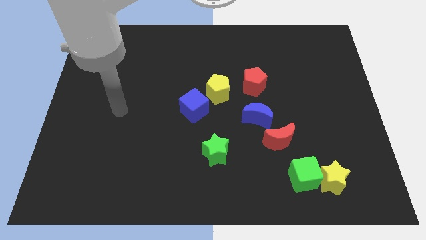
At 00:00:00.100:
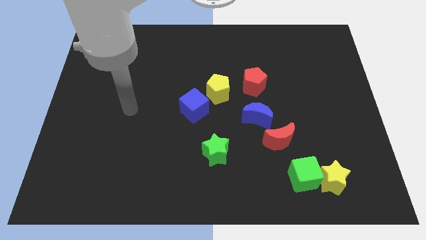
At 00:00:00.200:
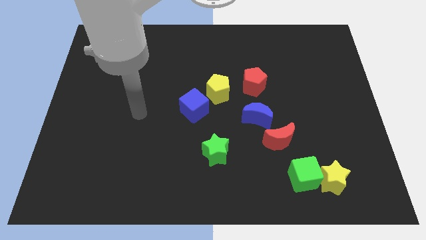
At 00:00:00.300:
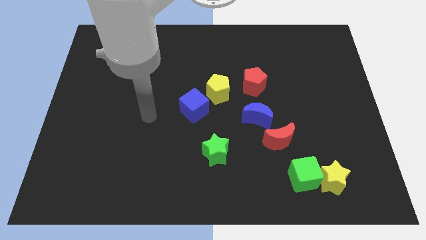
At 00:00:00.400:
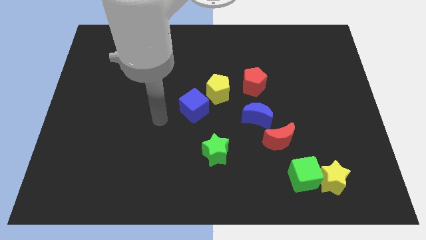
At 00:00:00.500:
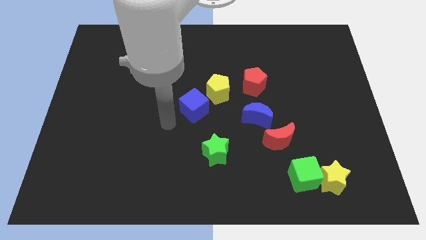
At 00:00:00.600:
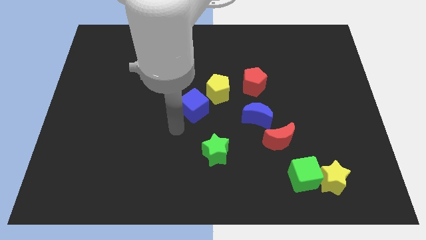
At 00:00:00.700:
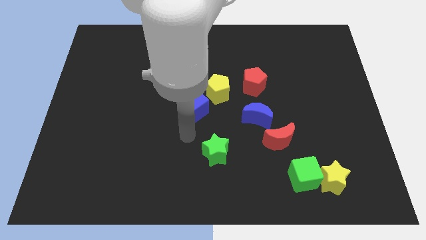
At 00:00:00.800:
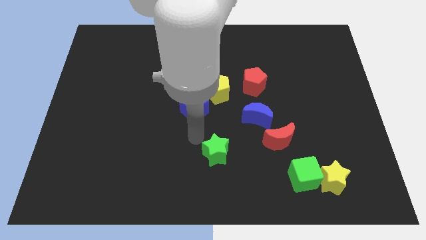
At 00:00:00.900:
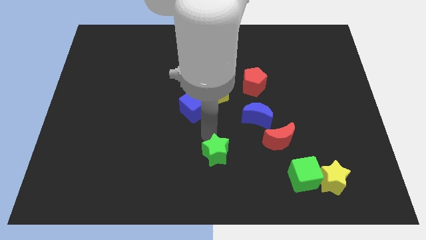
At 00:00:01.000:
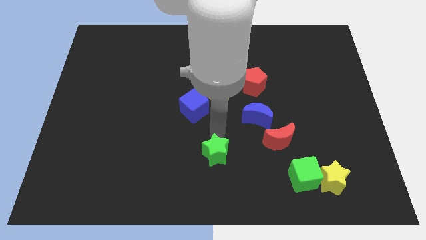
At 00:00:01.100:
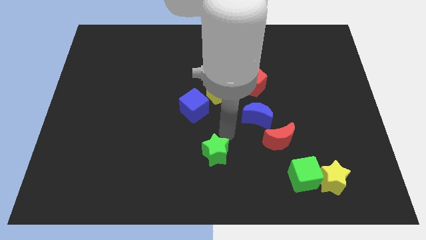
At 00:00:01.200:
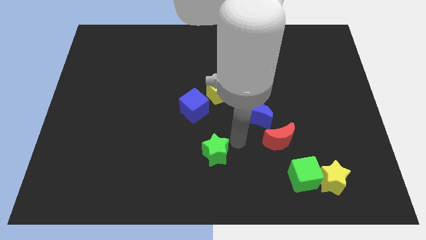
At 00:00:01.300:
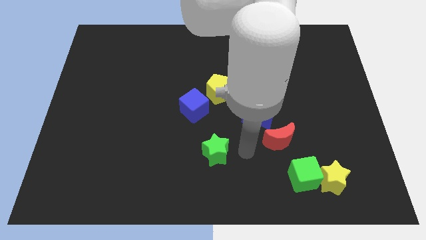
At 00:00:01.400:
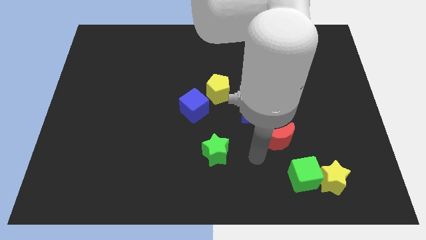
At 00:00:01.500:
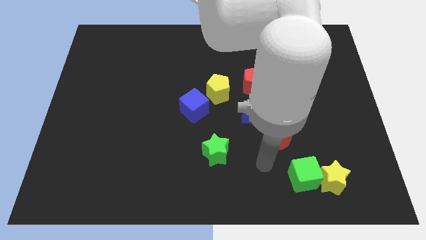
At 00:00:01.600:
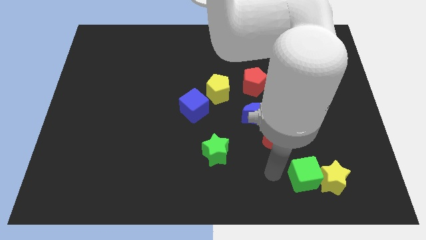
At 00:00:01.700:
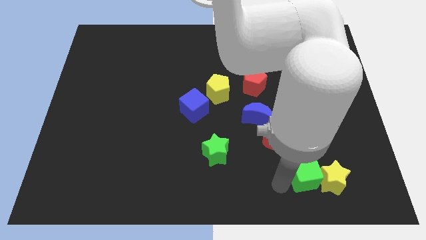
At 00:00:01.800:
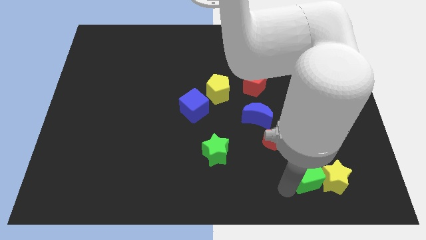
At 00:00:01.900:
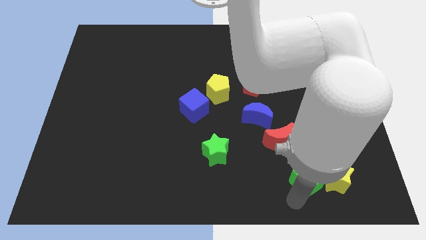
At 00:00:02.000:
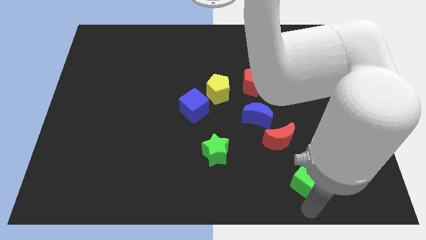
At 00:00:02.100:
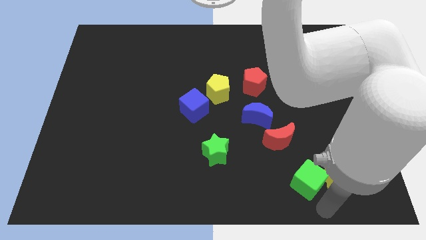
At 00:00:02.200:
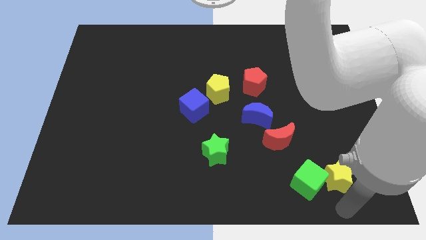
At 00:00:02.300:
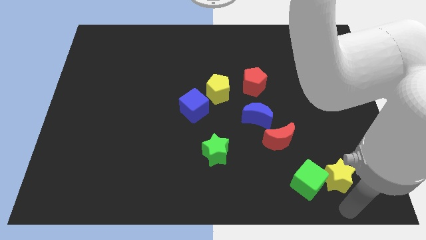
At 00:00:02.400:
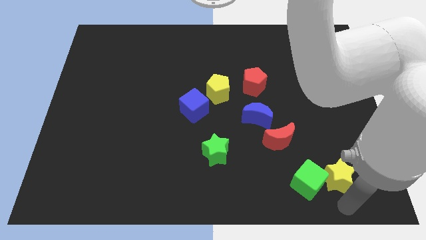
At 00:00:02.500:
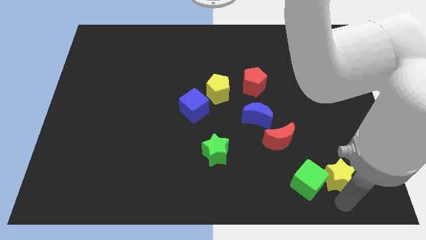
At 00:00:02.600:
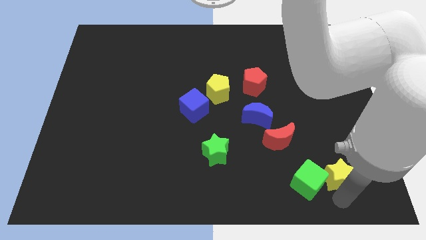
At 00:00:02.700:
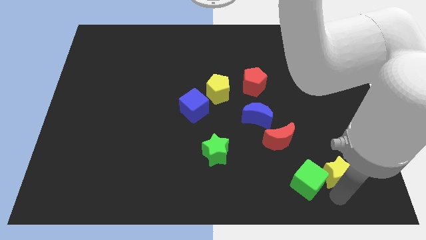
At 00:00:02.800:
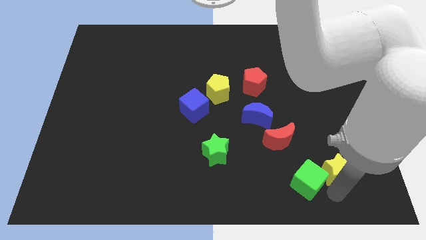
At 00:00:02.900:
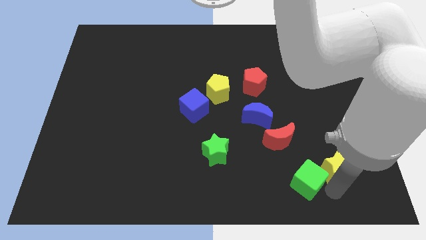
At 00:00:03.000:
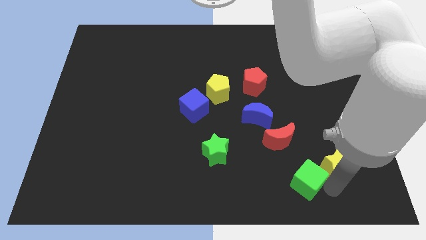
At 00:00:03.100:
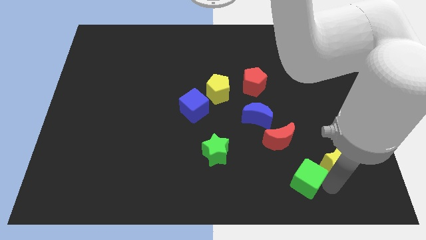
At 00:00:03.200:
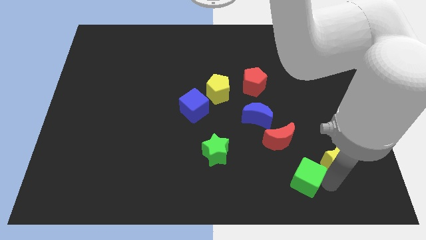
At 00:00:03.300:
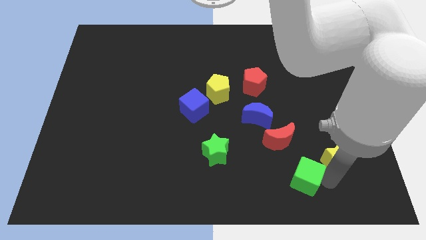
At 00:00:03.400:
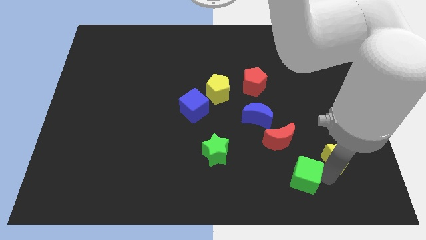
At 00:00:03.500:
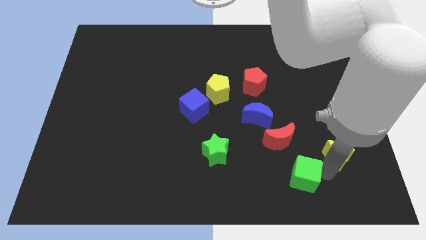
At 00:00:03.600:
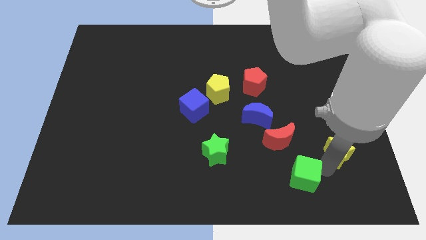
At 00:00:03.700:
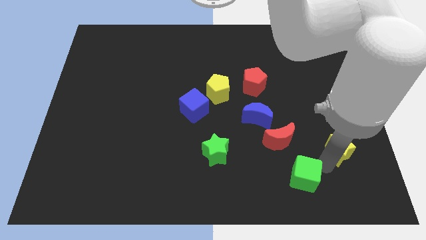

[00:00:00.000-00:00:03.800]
push the yellow star a little up

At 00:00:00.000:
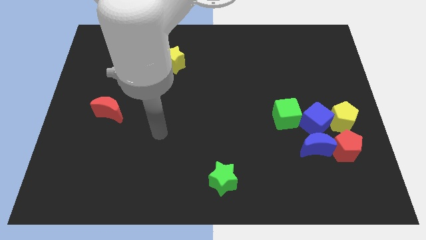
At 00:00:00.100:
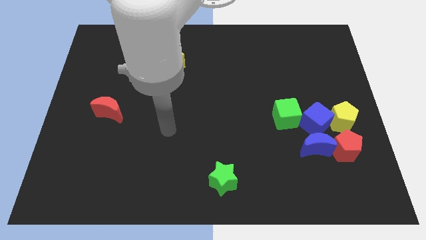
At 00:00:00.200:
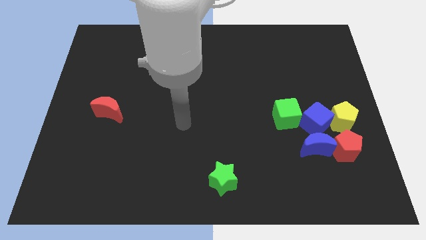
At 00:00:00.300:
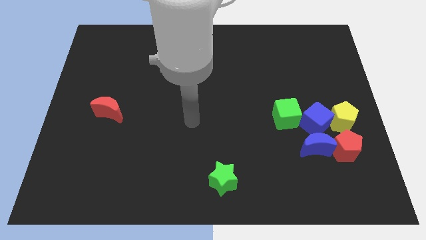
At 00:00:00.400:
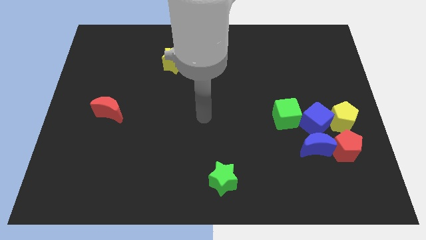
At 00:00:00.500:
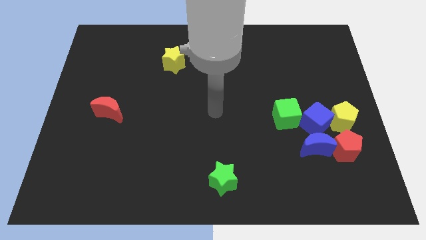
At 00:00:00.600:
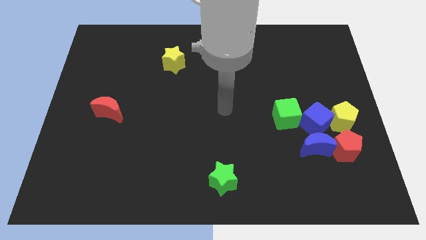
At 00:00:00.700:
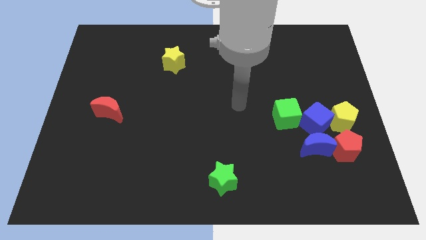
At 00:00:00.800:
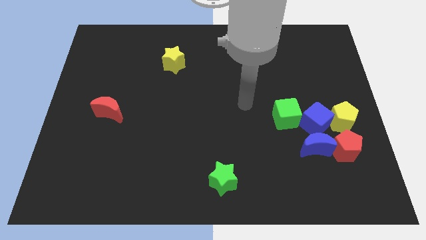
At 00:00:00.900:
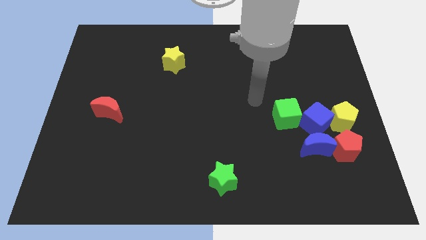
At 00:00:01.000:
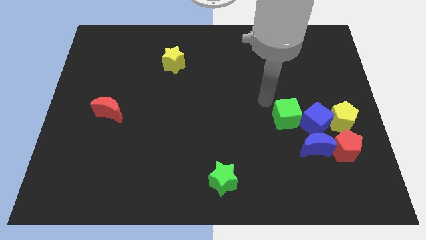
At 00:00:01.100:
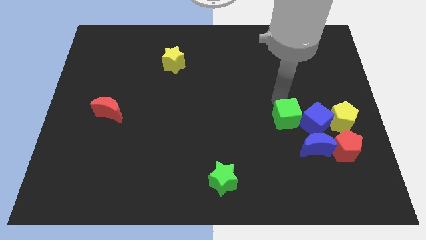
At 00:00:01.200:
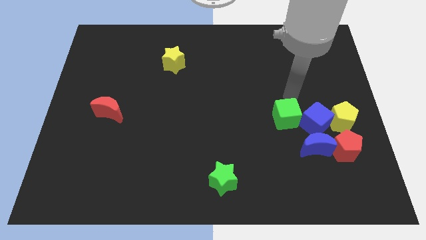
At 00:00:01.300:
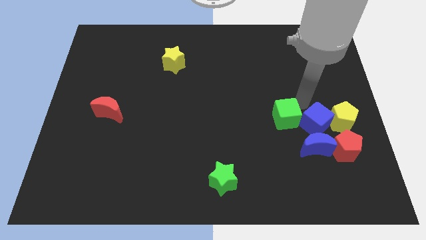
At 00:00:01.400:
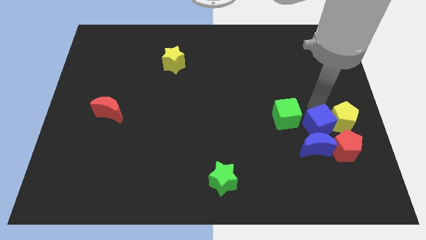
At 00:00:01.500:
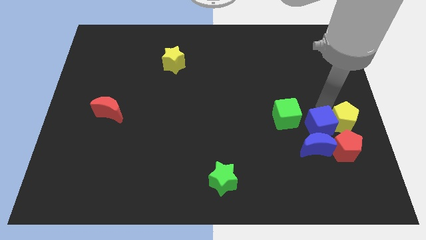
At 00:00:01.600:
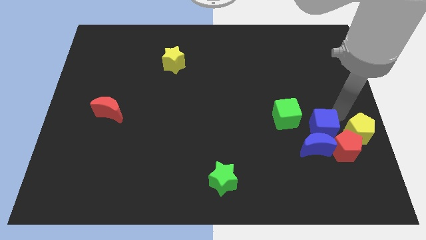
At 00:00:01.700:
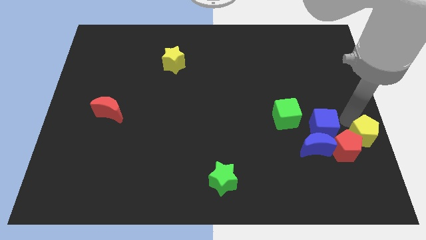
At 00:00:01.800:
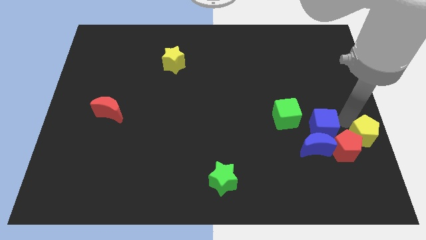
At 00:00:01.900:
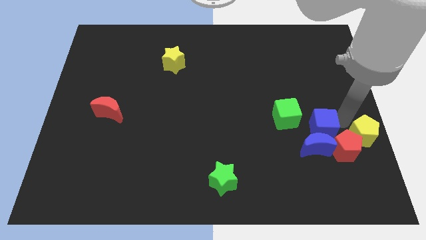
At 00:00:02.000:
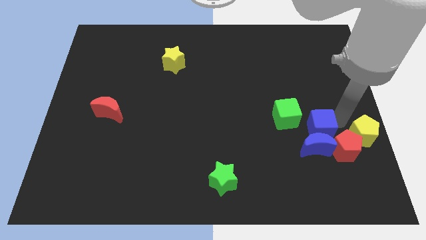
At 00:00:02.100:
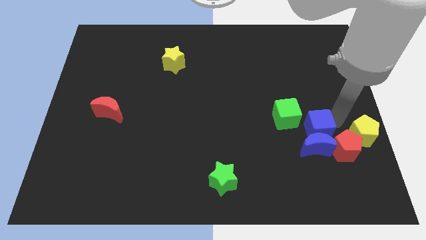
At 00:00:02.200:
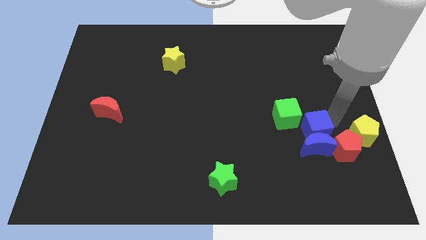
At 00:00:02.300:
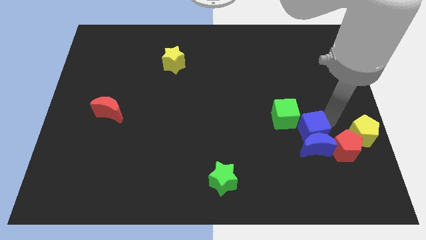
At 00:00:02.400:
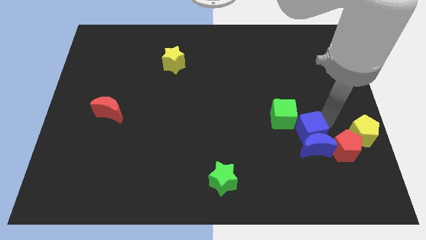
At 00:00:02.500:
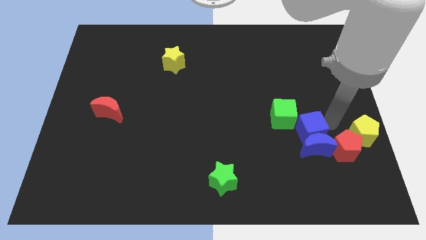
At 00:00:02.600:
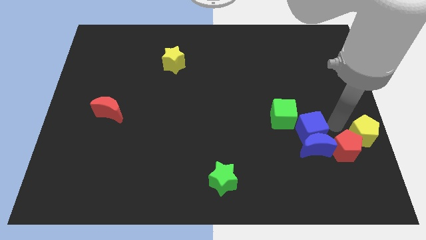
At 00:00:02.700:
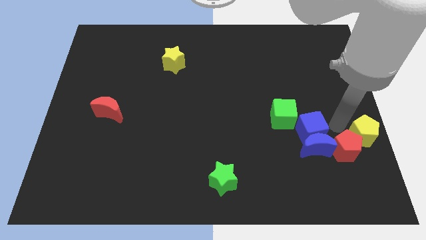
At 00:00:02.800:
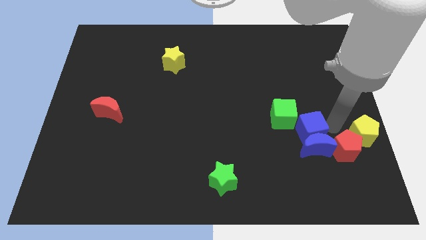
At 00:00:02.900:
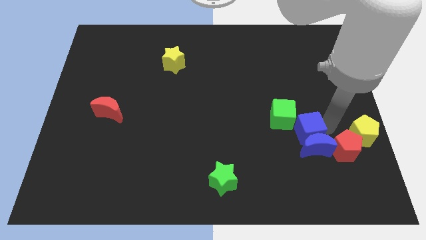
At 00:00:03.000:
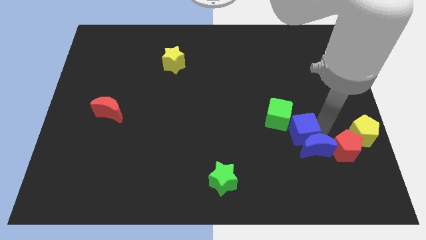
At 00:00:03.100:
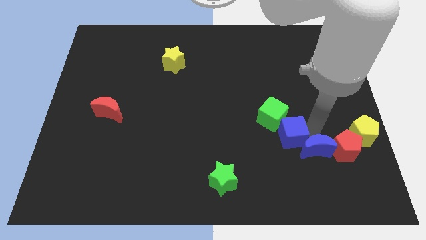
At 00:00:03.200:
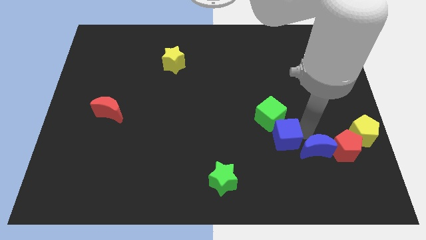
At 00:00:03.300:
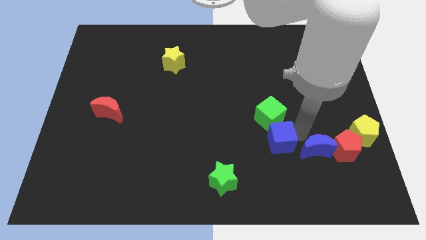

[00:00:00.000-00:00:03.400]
push the blue cube to the left a bit

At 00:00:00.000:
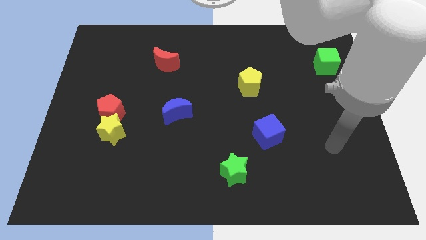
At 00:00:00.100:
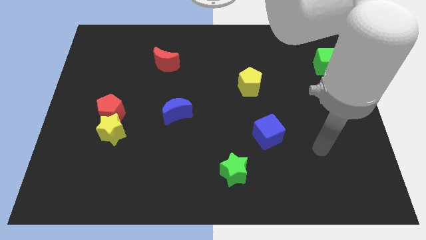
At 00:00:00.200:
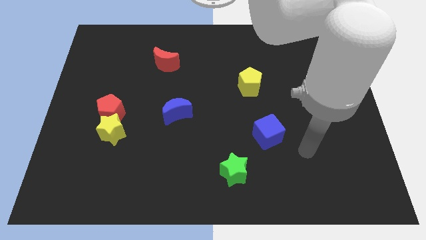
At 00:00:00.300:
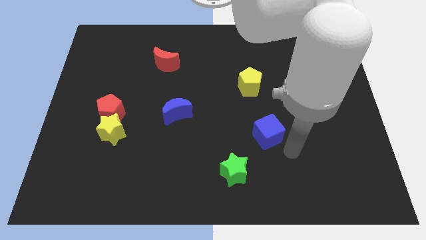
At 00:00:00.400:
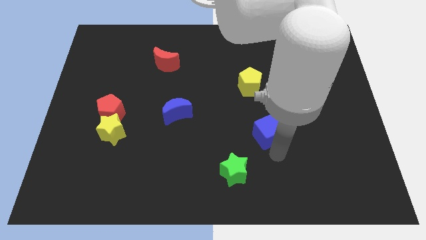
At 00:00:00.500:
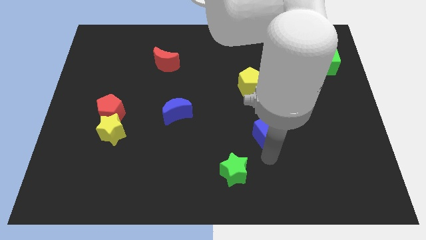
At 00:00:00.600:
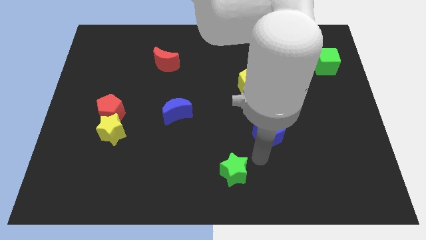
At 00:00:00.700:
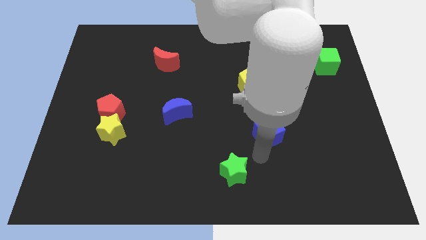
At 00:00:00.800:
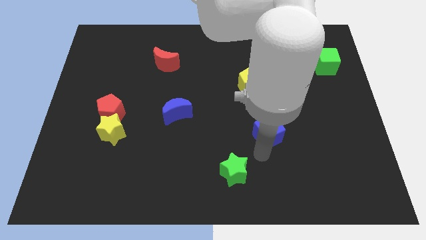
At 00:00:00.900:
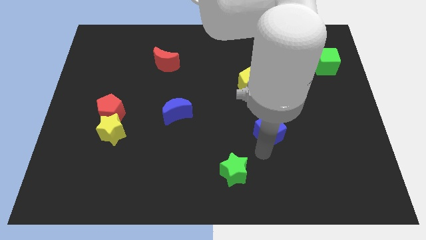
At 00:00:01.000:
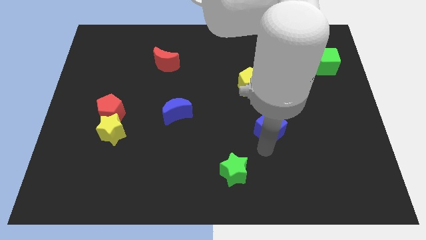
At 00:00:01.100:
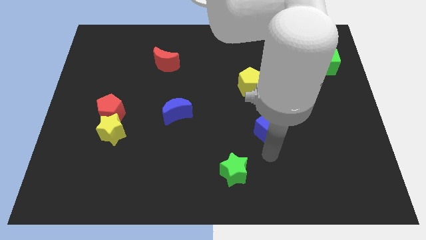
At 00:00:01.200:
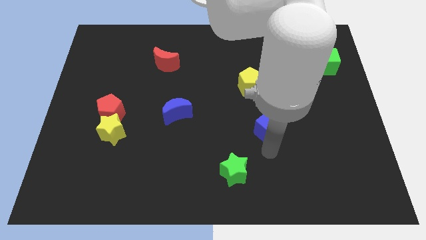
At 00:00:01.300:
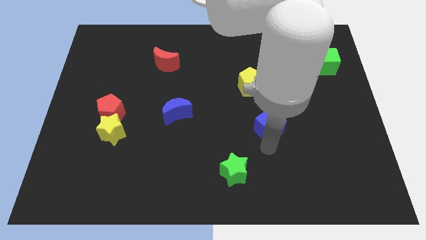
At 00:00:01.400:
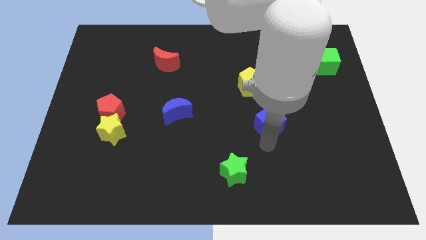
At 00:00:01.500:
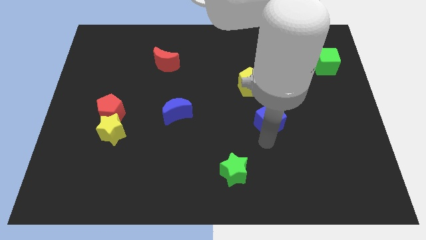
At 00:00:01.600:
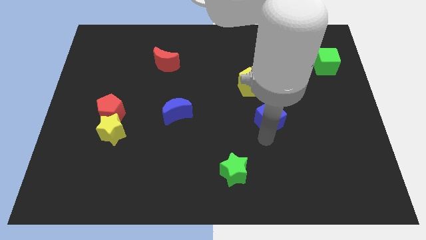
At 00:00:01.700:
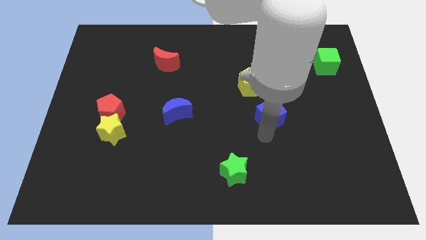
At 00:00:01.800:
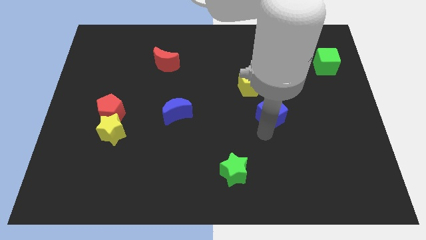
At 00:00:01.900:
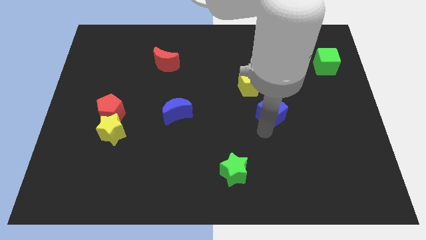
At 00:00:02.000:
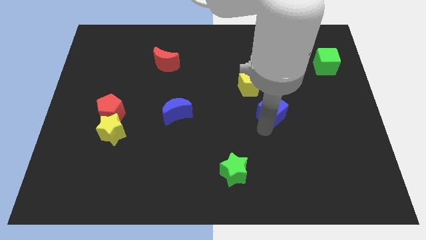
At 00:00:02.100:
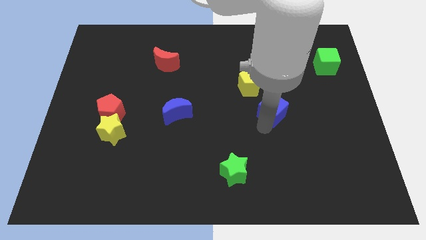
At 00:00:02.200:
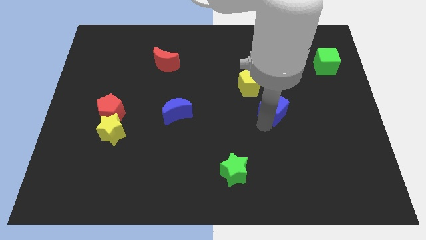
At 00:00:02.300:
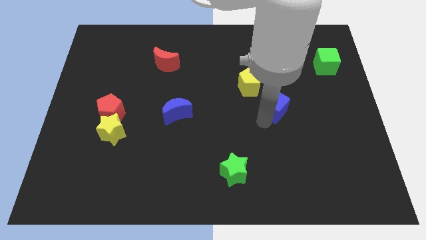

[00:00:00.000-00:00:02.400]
push the blue cube up a little
